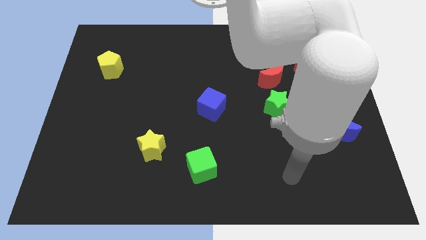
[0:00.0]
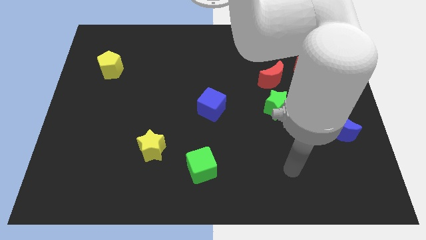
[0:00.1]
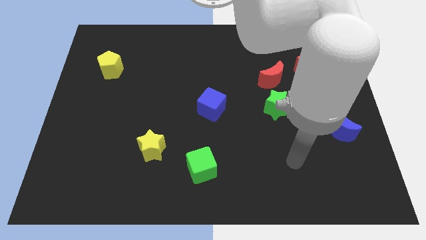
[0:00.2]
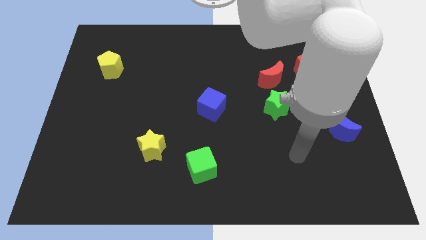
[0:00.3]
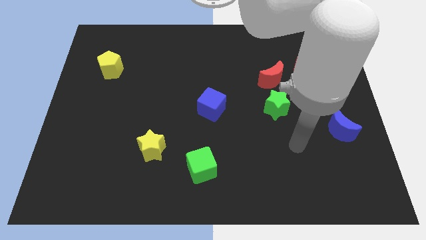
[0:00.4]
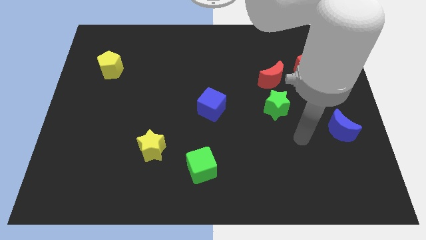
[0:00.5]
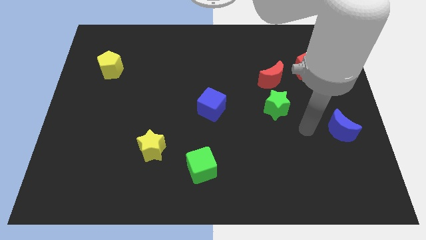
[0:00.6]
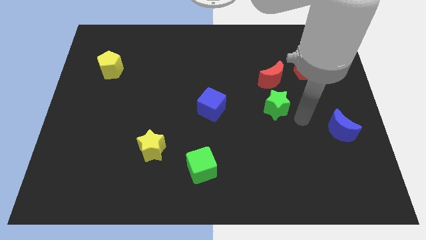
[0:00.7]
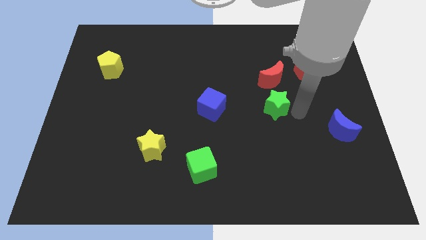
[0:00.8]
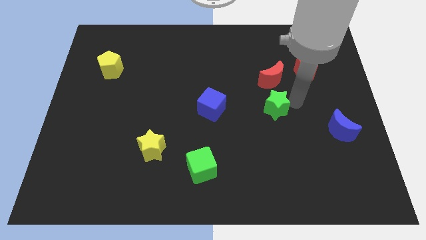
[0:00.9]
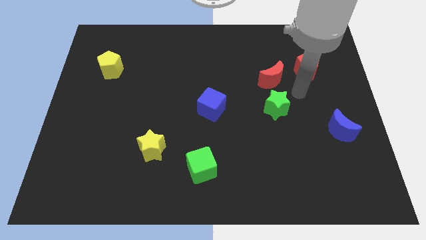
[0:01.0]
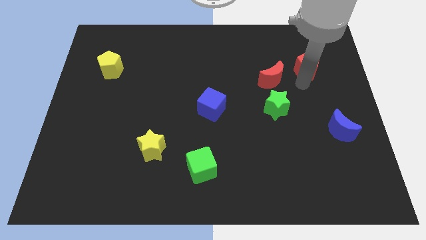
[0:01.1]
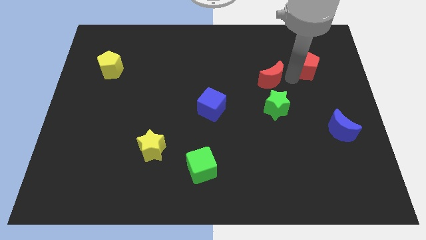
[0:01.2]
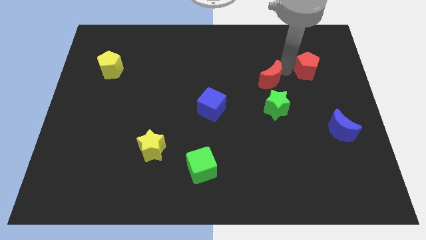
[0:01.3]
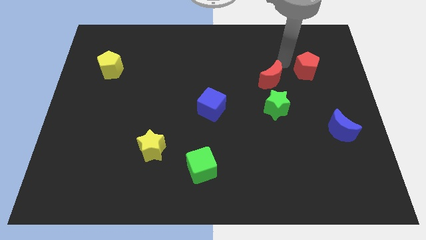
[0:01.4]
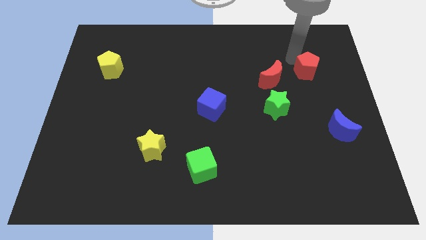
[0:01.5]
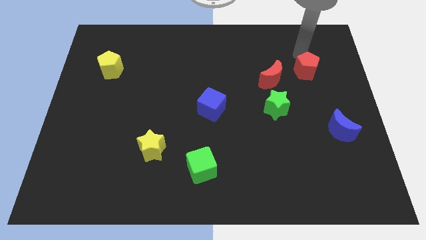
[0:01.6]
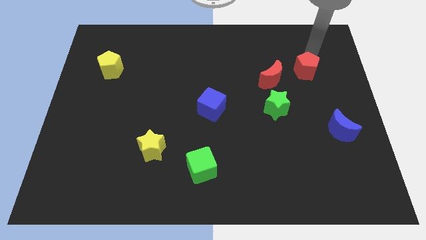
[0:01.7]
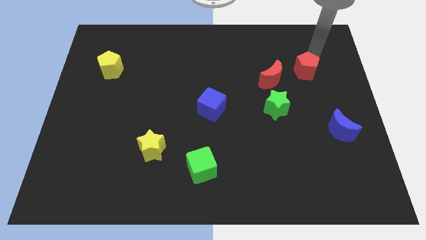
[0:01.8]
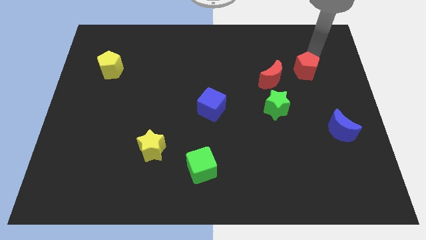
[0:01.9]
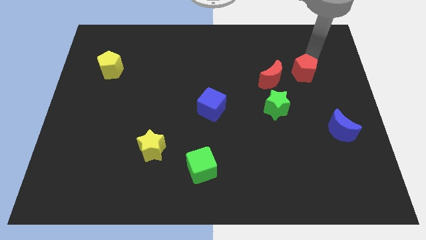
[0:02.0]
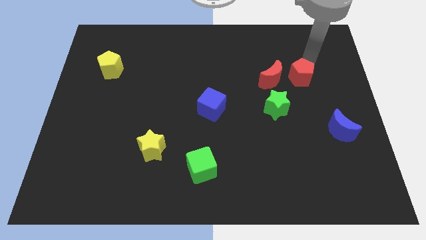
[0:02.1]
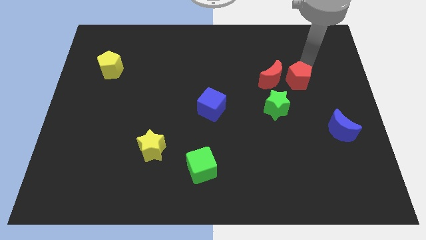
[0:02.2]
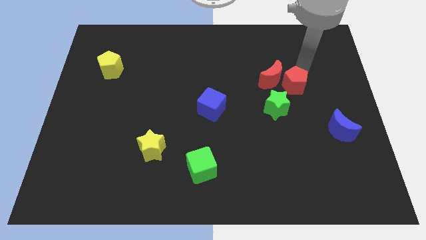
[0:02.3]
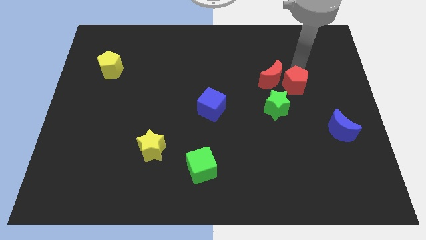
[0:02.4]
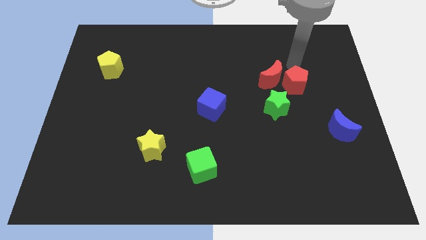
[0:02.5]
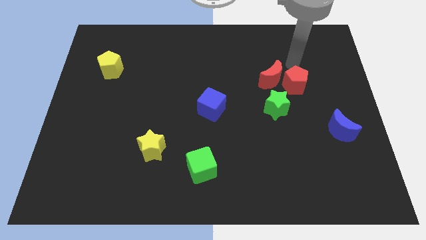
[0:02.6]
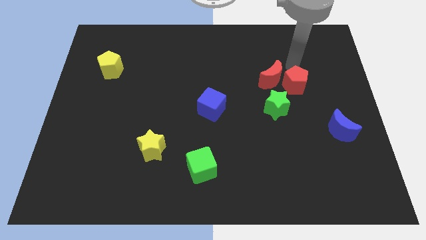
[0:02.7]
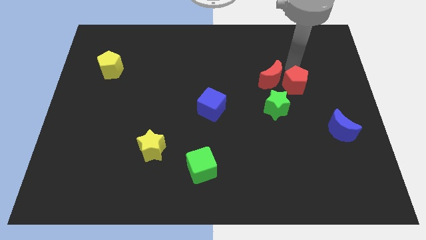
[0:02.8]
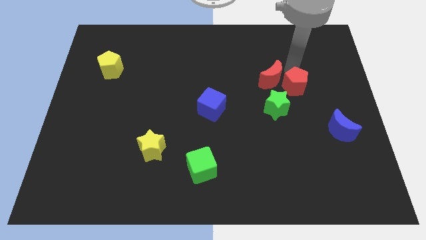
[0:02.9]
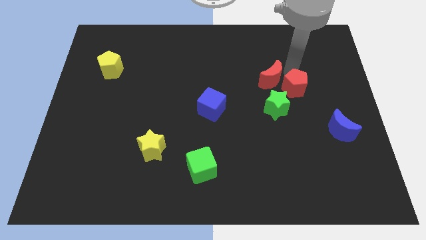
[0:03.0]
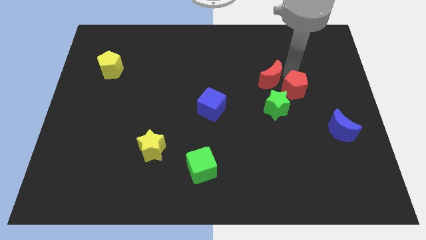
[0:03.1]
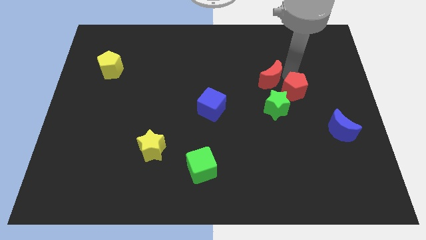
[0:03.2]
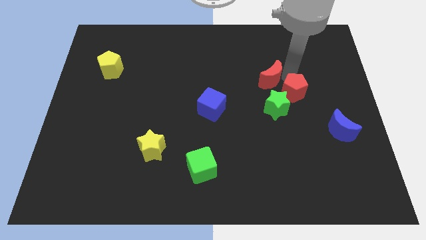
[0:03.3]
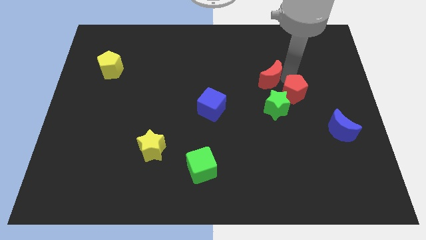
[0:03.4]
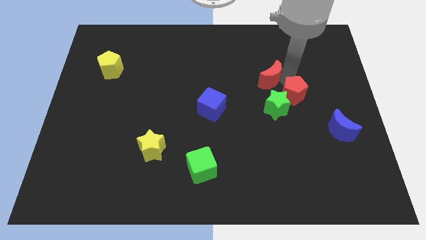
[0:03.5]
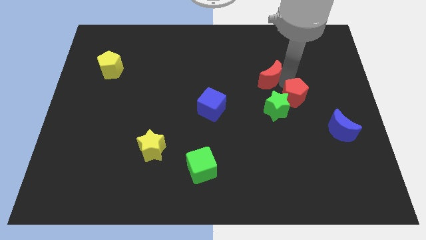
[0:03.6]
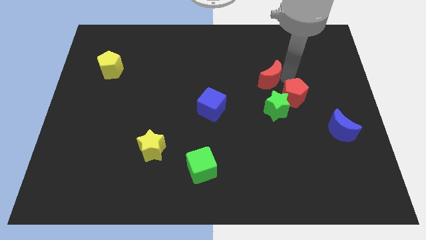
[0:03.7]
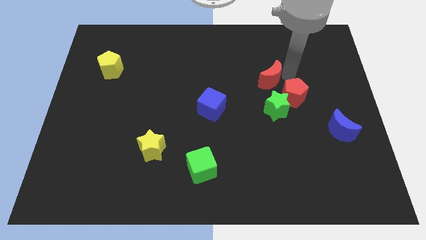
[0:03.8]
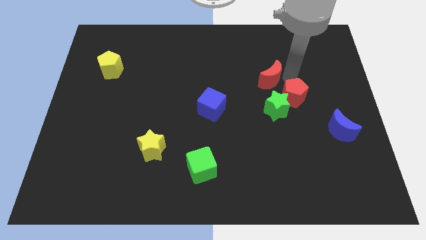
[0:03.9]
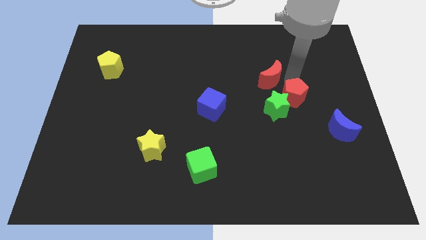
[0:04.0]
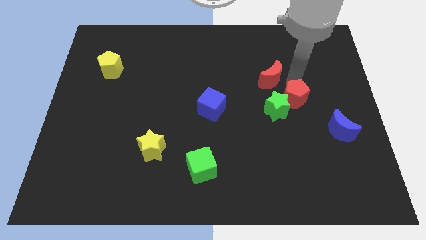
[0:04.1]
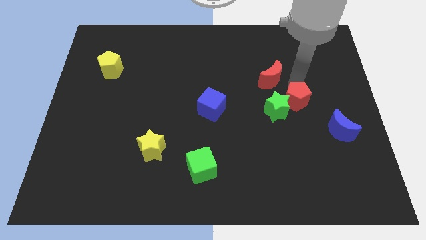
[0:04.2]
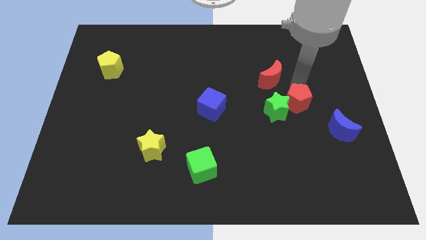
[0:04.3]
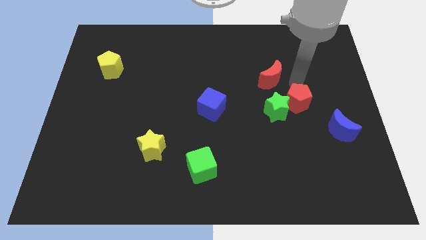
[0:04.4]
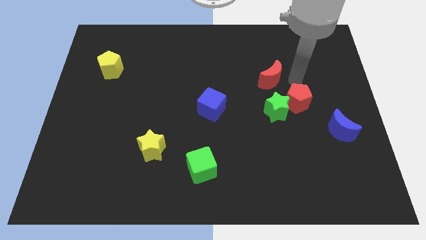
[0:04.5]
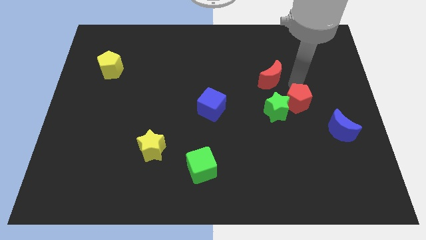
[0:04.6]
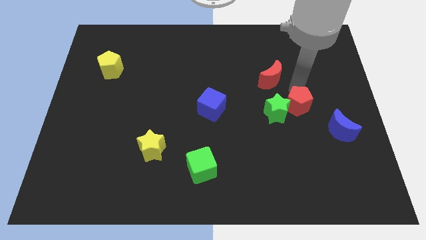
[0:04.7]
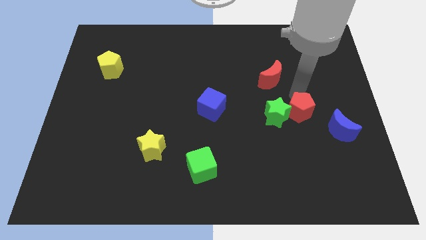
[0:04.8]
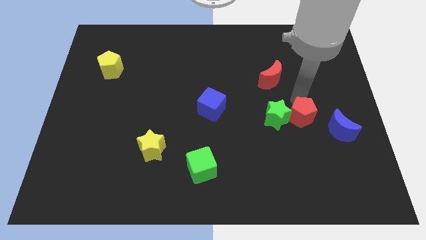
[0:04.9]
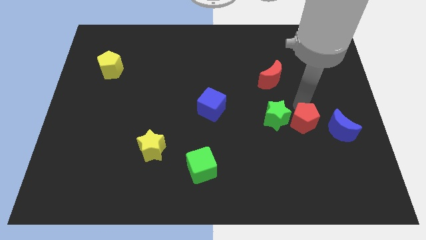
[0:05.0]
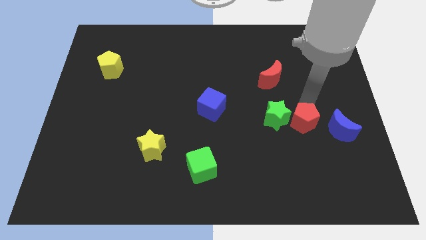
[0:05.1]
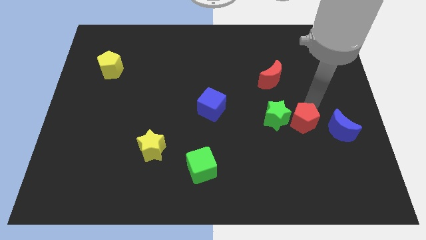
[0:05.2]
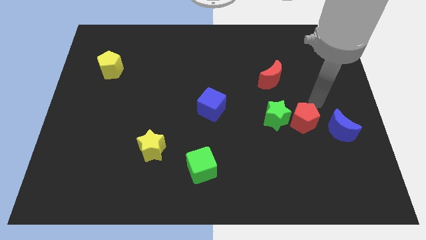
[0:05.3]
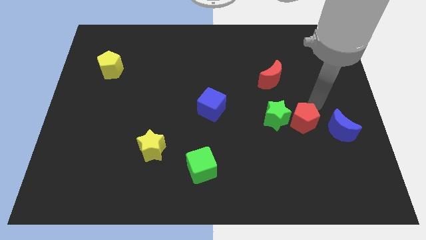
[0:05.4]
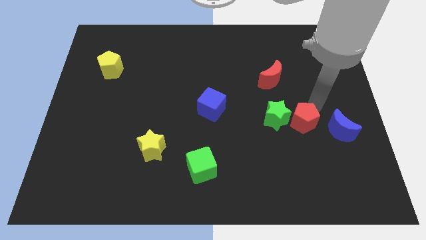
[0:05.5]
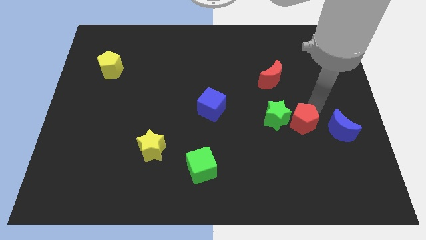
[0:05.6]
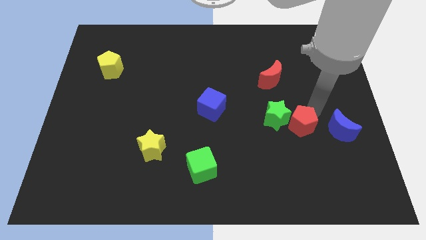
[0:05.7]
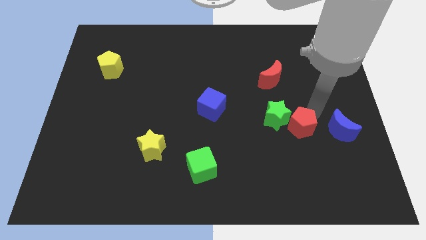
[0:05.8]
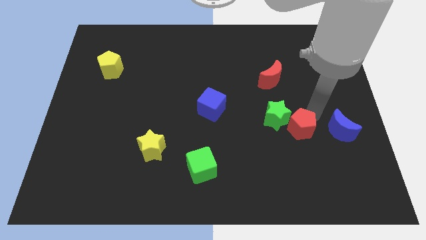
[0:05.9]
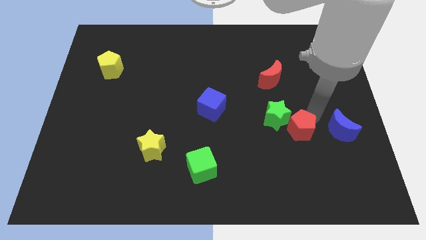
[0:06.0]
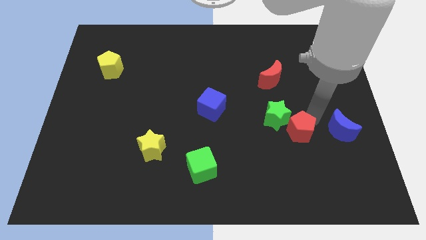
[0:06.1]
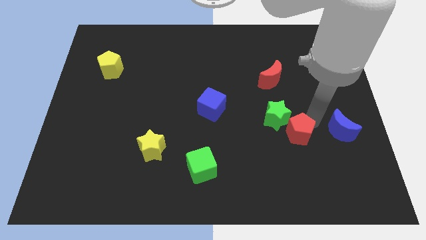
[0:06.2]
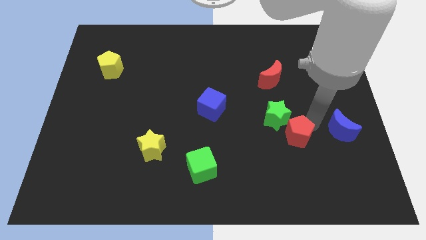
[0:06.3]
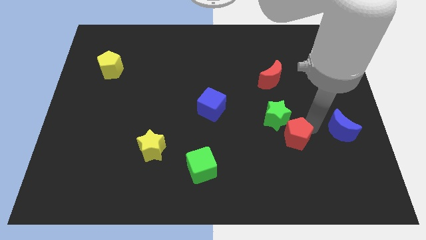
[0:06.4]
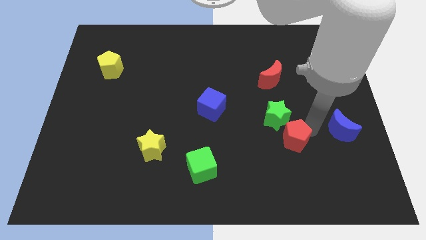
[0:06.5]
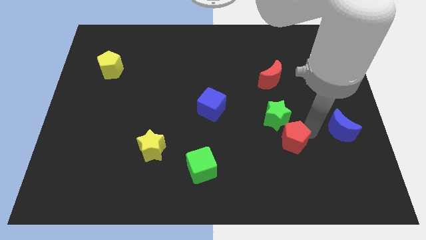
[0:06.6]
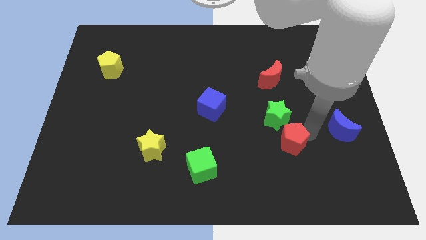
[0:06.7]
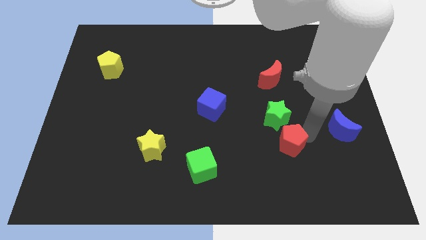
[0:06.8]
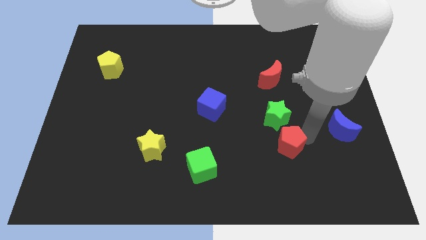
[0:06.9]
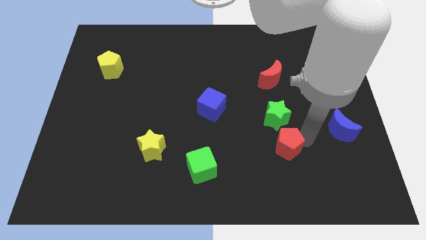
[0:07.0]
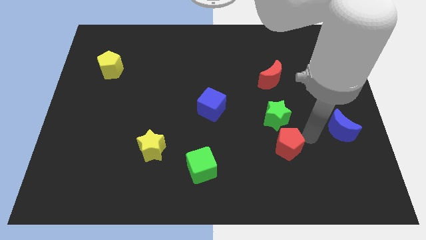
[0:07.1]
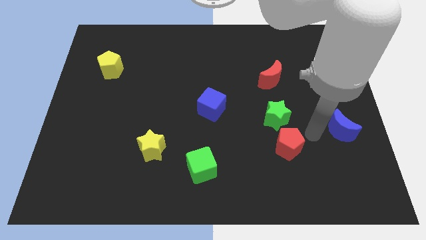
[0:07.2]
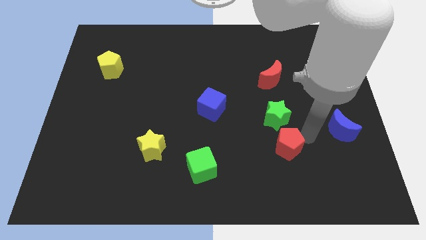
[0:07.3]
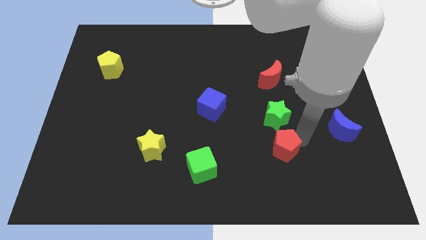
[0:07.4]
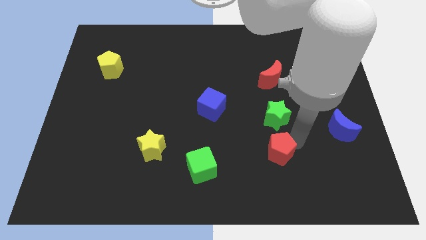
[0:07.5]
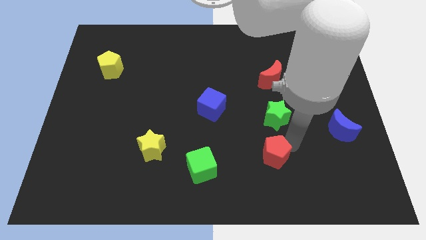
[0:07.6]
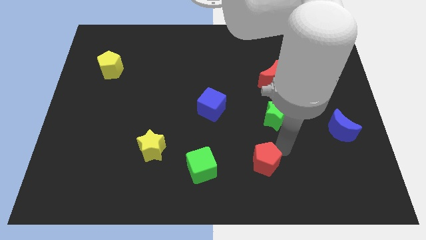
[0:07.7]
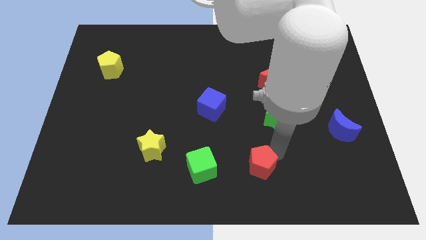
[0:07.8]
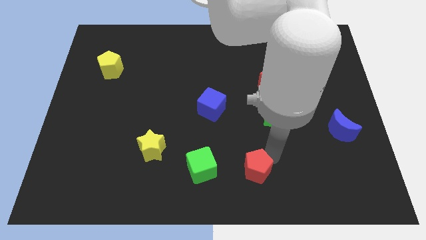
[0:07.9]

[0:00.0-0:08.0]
put the red pentagon to the bottom
